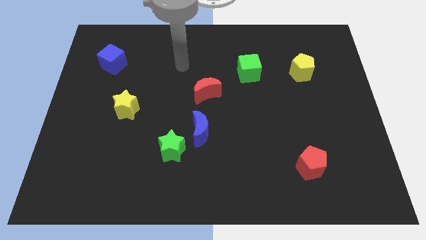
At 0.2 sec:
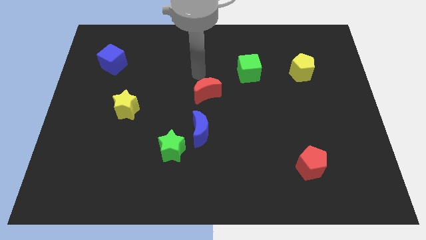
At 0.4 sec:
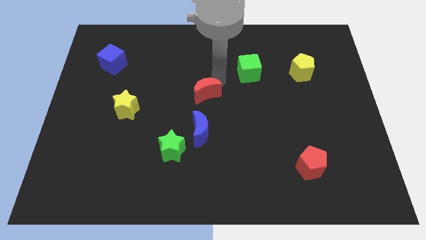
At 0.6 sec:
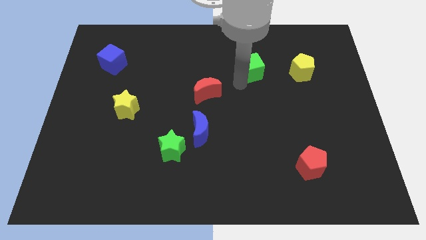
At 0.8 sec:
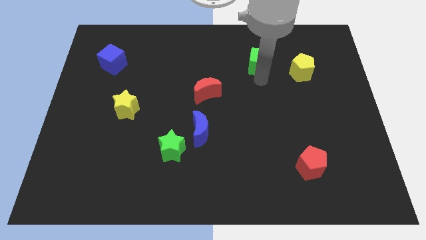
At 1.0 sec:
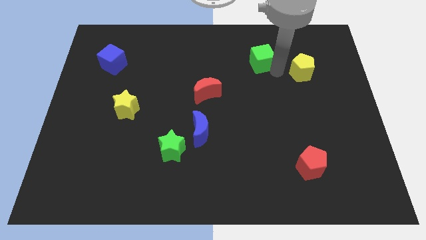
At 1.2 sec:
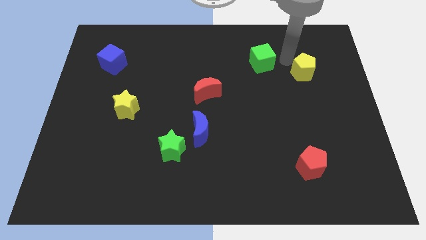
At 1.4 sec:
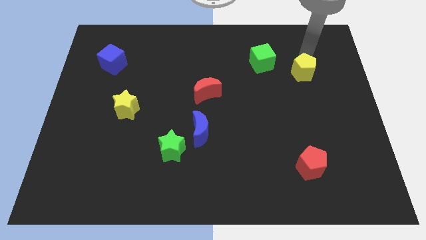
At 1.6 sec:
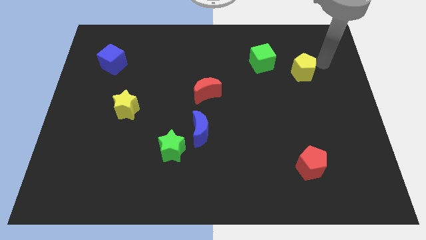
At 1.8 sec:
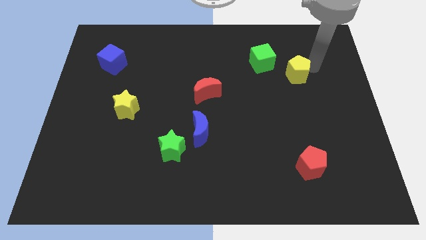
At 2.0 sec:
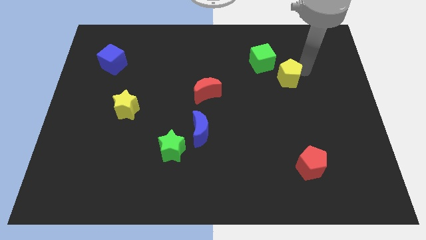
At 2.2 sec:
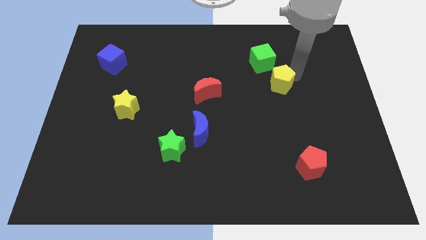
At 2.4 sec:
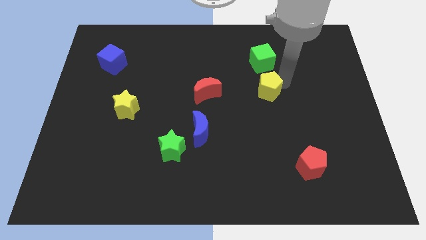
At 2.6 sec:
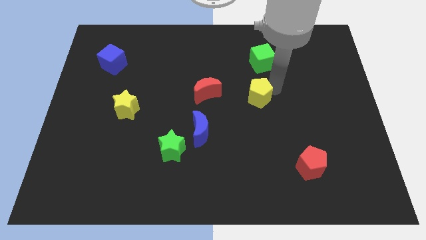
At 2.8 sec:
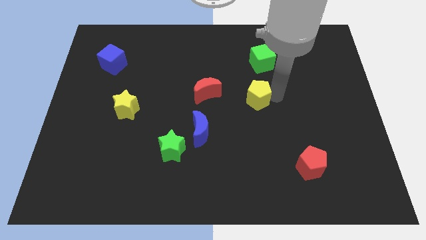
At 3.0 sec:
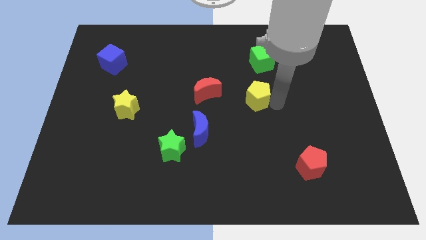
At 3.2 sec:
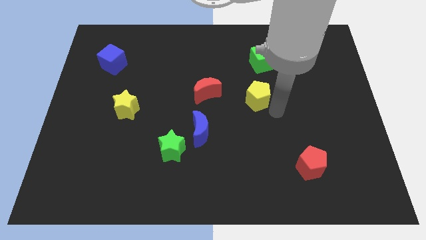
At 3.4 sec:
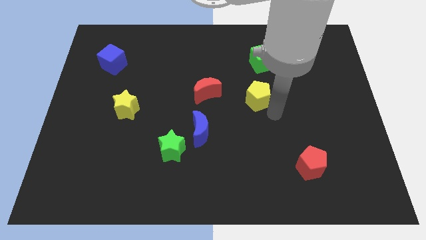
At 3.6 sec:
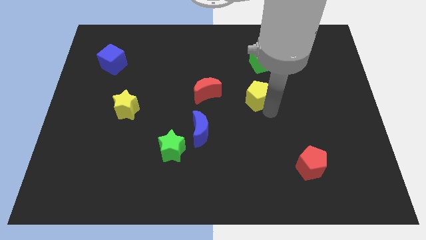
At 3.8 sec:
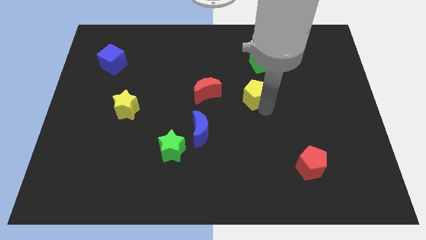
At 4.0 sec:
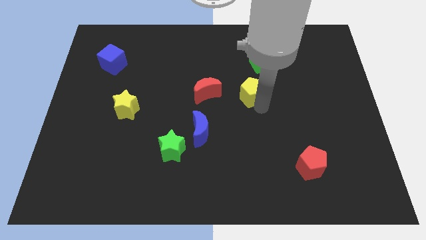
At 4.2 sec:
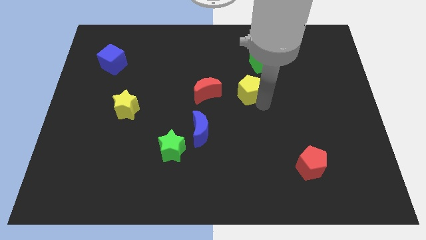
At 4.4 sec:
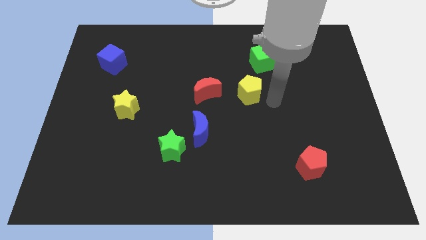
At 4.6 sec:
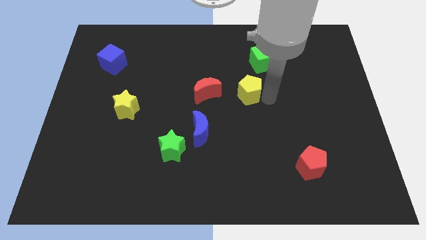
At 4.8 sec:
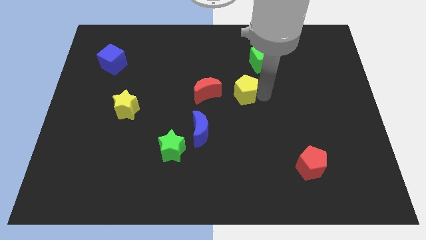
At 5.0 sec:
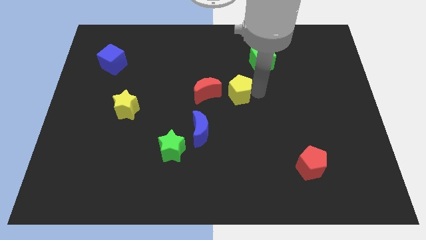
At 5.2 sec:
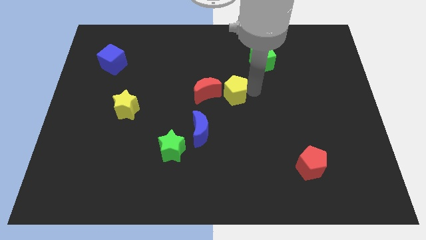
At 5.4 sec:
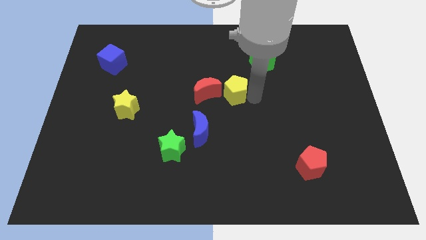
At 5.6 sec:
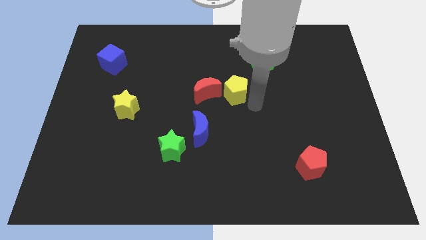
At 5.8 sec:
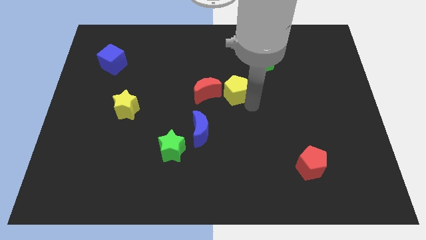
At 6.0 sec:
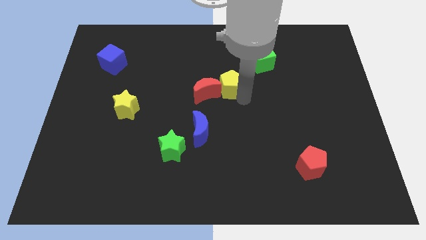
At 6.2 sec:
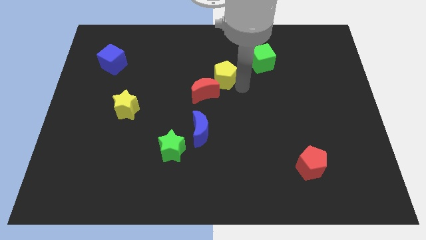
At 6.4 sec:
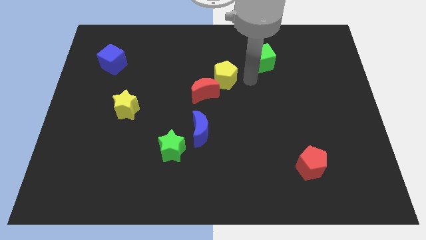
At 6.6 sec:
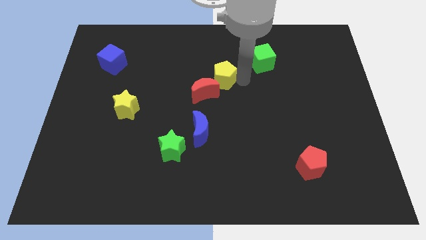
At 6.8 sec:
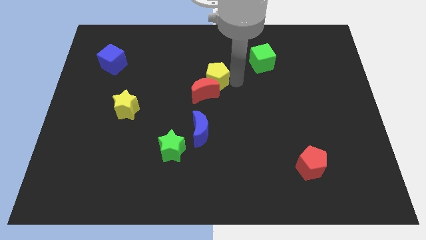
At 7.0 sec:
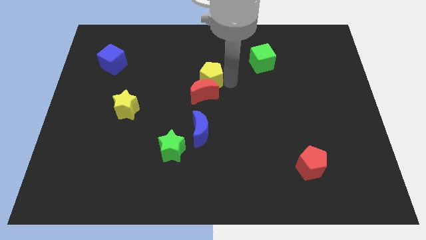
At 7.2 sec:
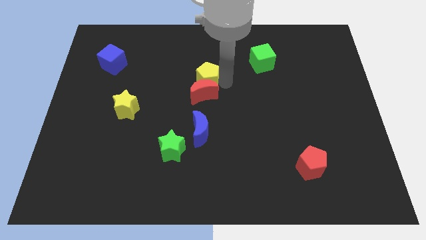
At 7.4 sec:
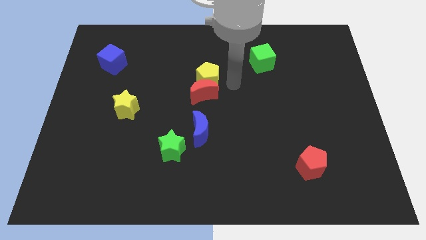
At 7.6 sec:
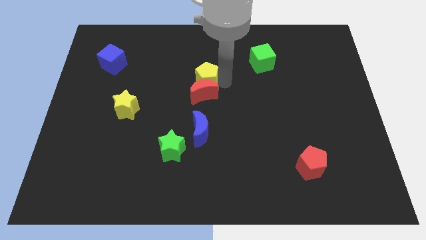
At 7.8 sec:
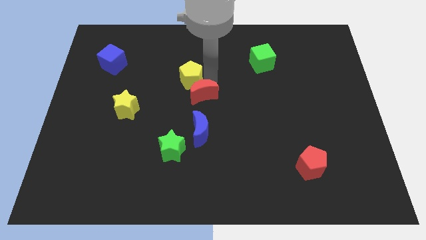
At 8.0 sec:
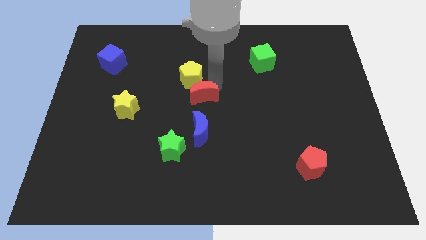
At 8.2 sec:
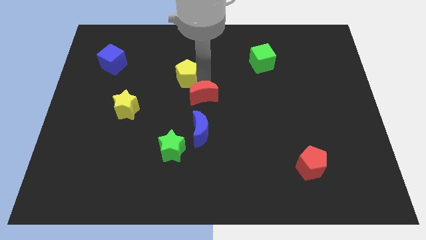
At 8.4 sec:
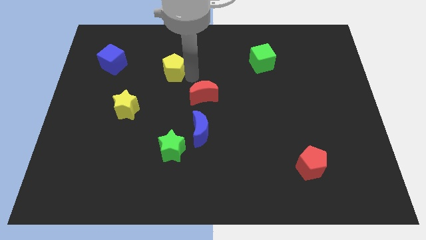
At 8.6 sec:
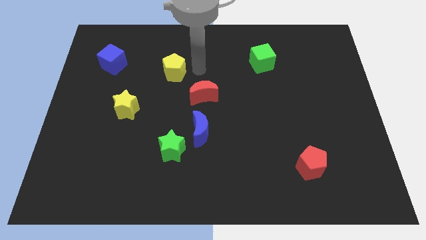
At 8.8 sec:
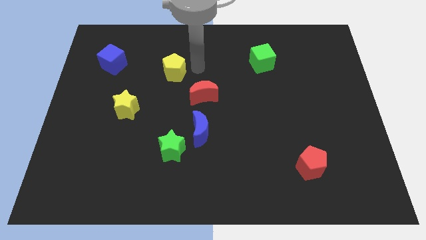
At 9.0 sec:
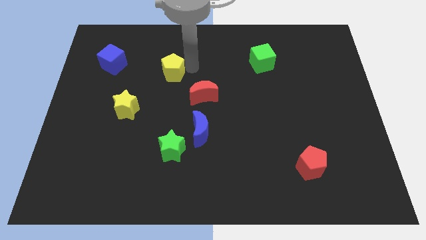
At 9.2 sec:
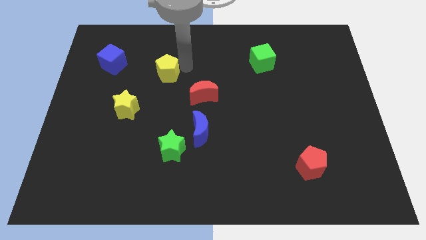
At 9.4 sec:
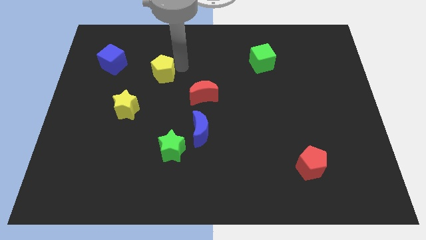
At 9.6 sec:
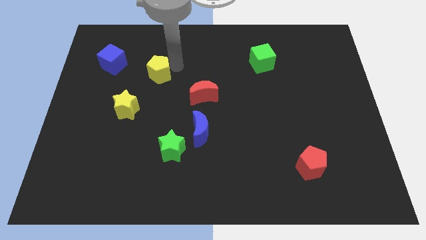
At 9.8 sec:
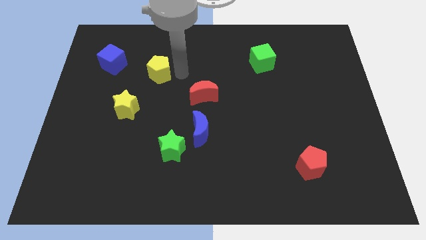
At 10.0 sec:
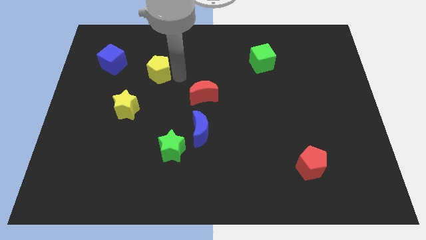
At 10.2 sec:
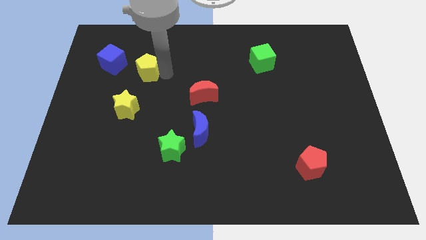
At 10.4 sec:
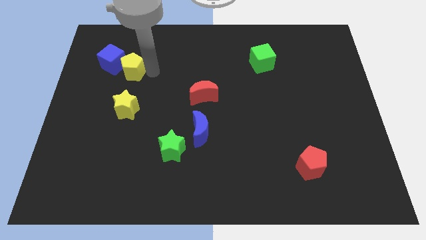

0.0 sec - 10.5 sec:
move the yellow pentagon close to the blue cube

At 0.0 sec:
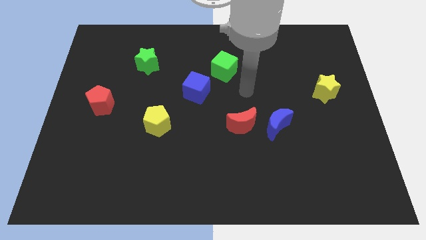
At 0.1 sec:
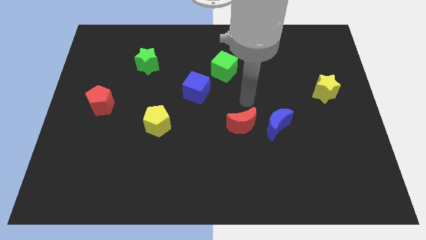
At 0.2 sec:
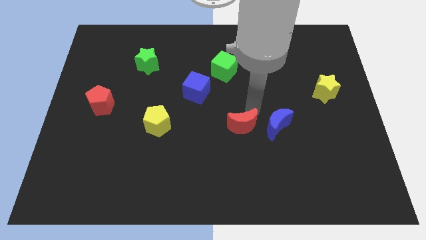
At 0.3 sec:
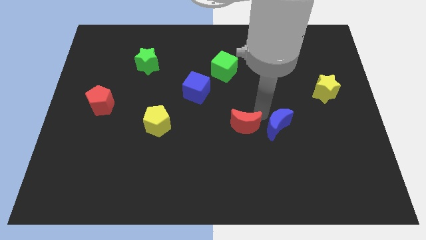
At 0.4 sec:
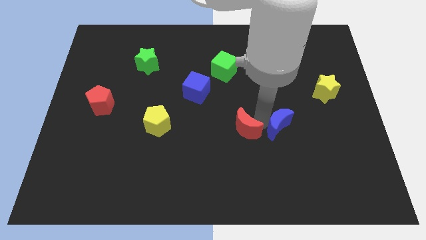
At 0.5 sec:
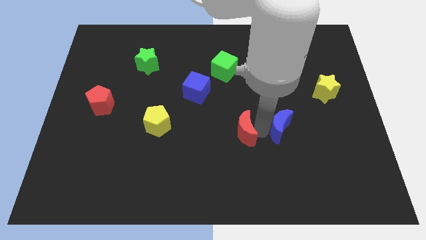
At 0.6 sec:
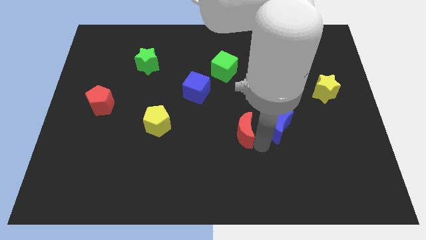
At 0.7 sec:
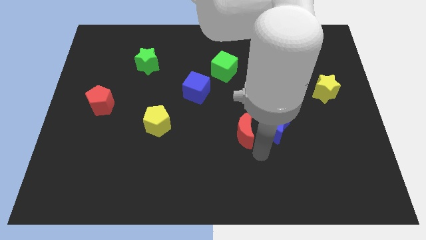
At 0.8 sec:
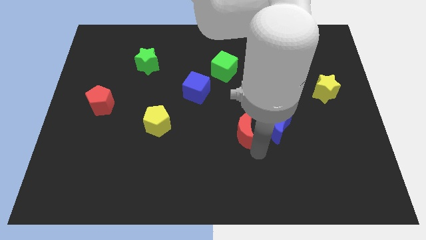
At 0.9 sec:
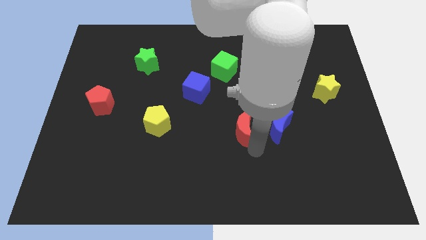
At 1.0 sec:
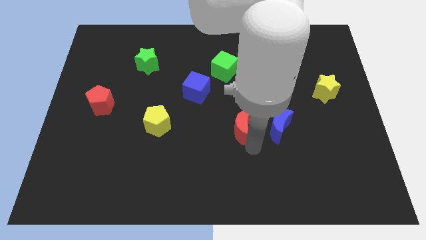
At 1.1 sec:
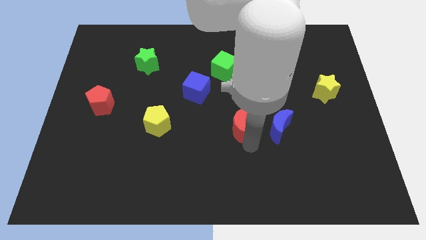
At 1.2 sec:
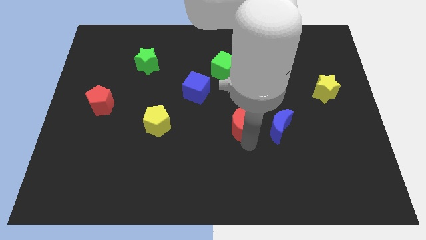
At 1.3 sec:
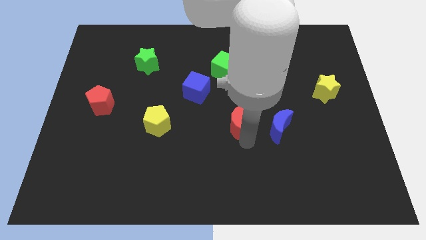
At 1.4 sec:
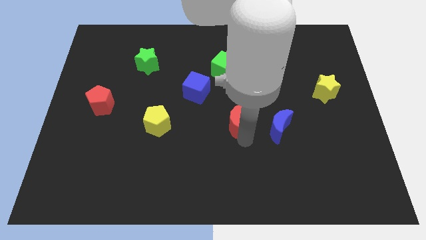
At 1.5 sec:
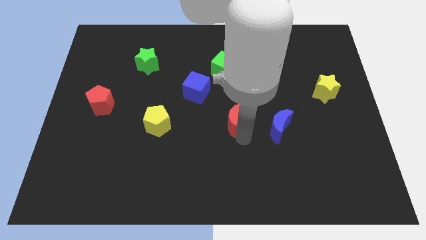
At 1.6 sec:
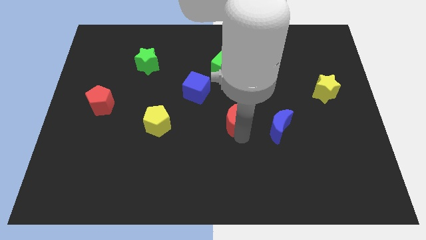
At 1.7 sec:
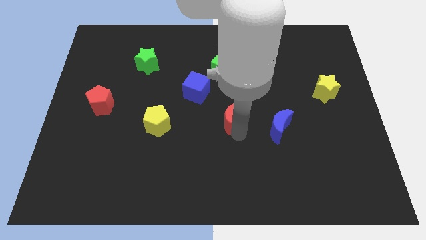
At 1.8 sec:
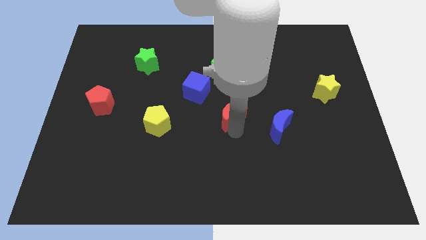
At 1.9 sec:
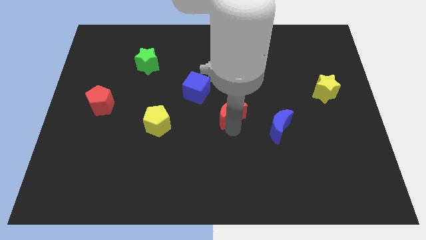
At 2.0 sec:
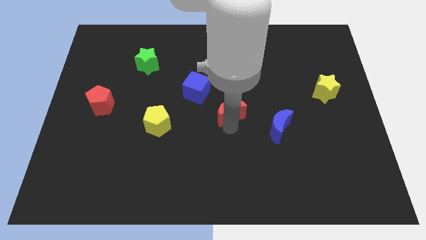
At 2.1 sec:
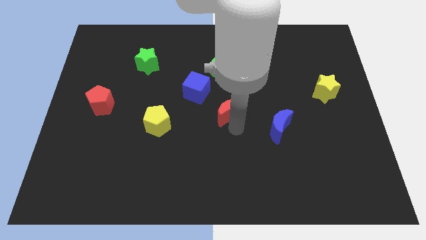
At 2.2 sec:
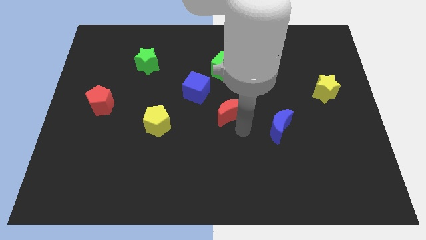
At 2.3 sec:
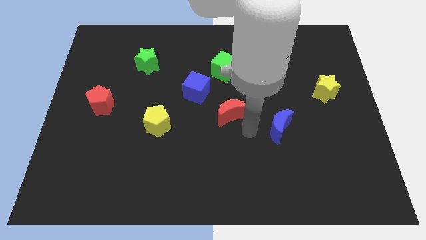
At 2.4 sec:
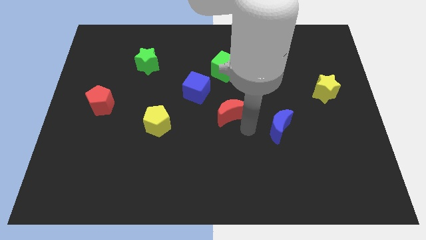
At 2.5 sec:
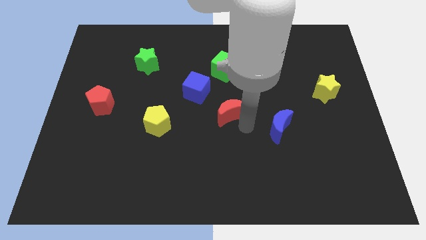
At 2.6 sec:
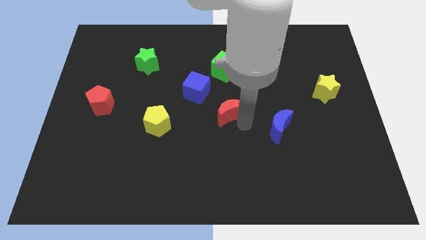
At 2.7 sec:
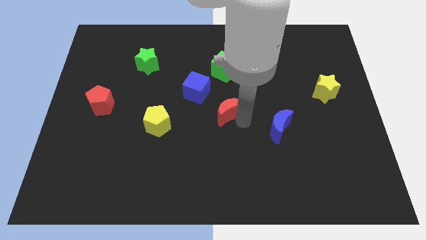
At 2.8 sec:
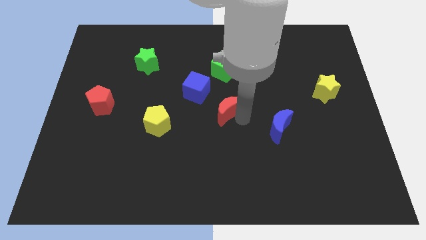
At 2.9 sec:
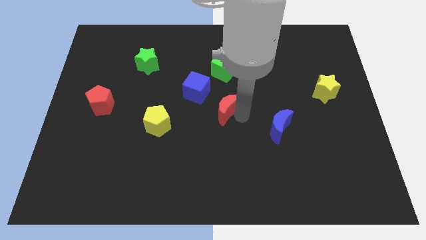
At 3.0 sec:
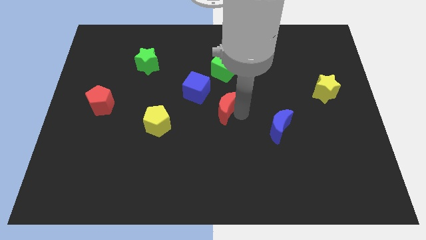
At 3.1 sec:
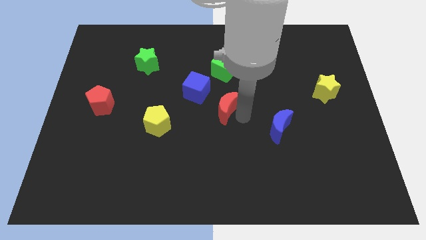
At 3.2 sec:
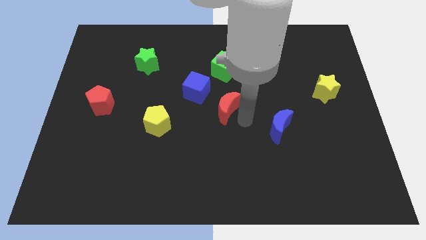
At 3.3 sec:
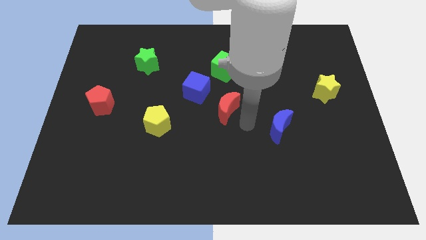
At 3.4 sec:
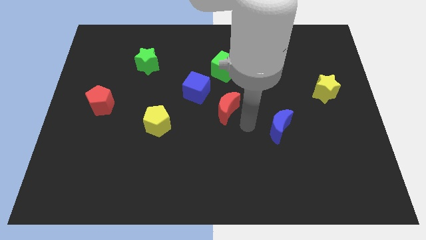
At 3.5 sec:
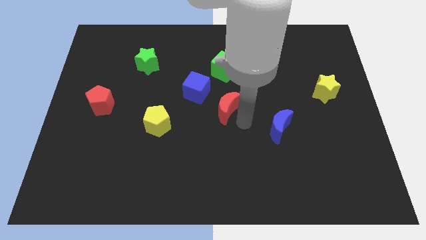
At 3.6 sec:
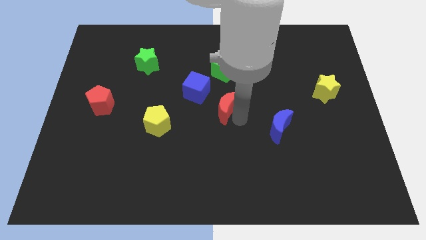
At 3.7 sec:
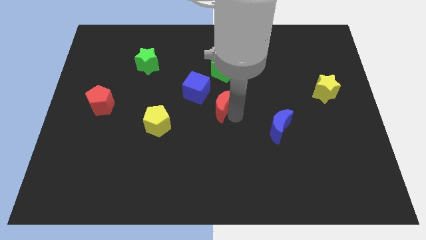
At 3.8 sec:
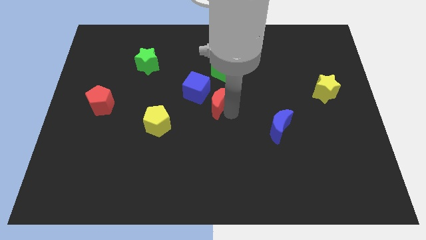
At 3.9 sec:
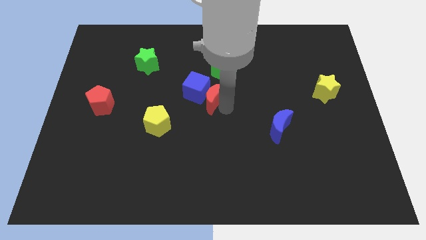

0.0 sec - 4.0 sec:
slide the red moon to the blue cube
